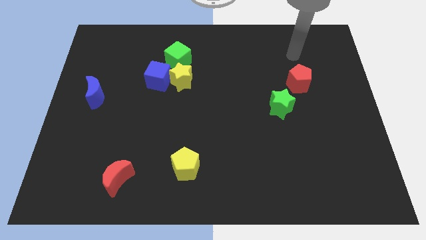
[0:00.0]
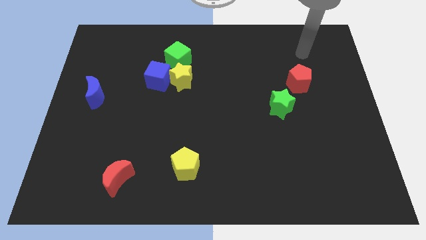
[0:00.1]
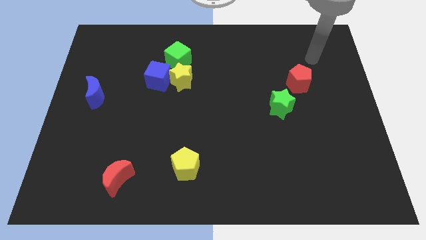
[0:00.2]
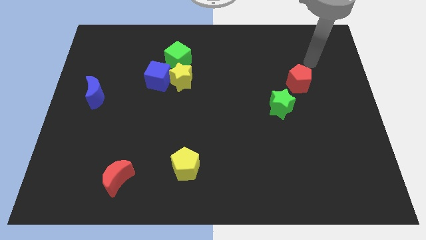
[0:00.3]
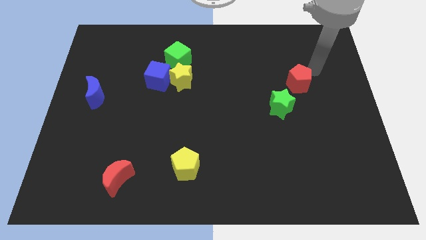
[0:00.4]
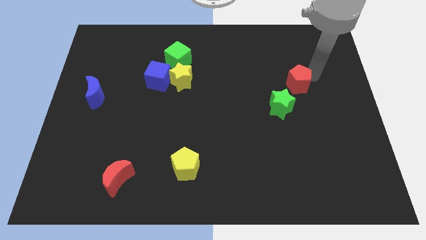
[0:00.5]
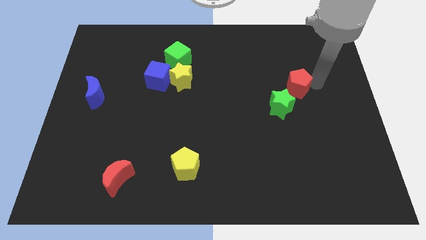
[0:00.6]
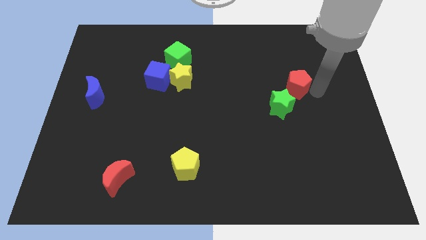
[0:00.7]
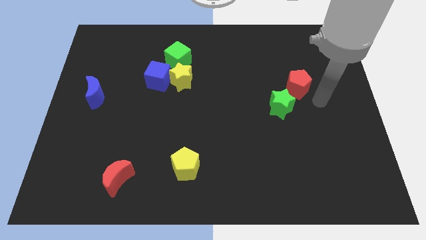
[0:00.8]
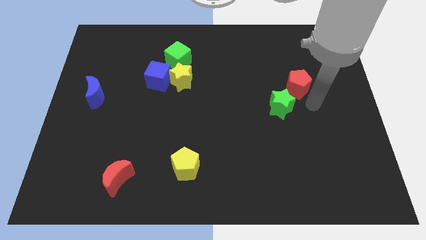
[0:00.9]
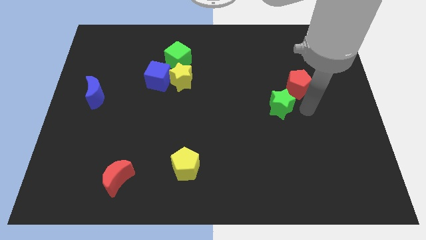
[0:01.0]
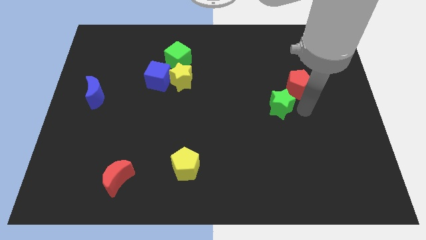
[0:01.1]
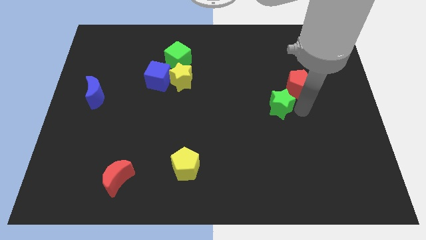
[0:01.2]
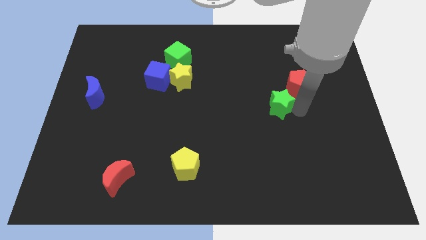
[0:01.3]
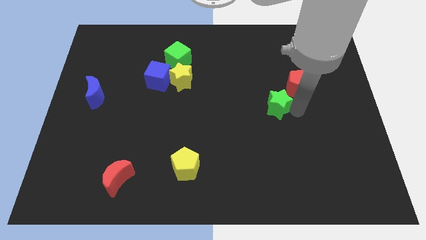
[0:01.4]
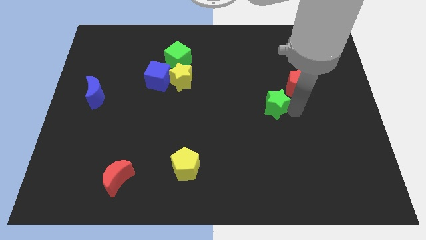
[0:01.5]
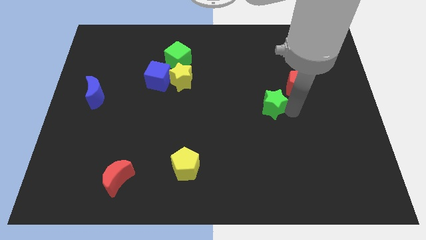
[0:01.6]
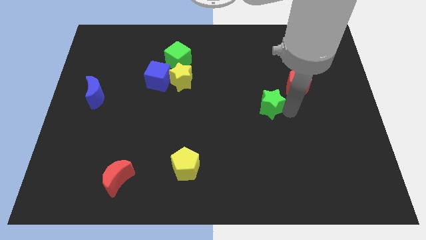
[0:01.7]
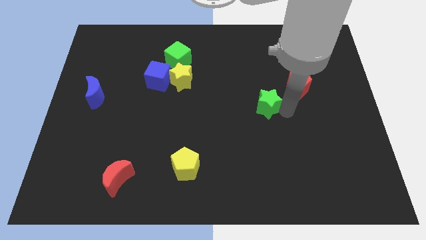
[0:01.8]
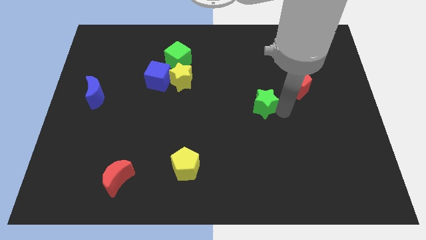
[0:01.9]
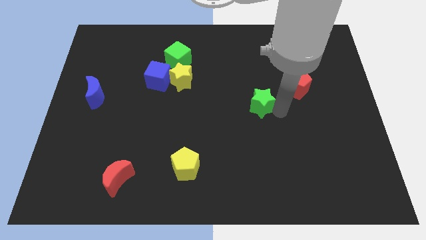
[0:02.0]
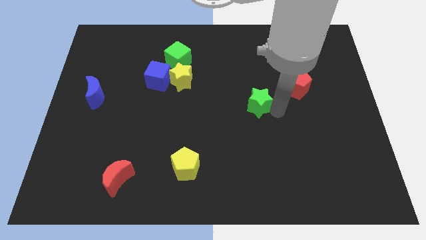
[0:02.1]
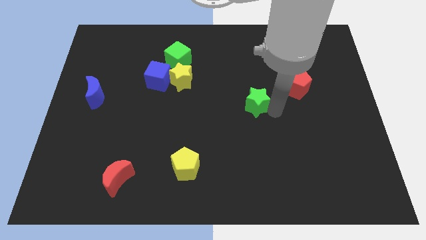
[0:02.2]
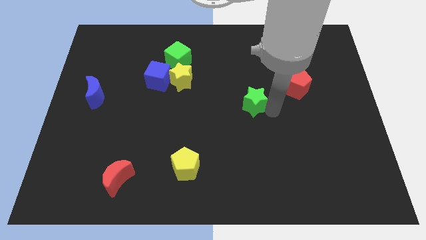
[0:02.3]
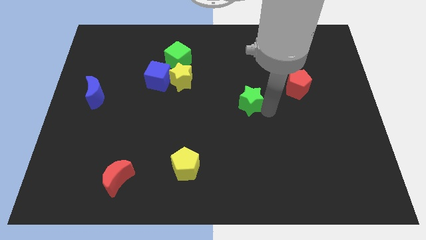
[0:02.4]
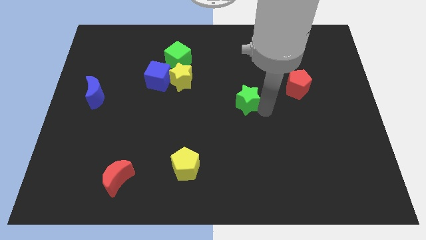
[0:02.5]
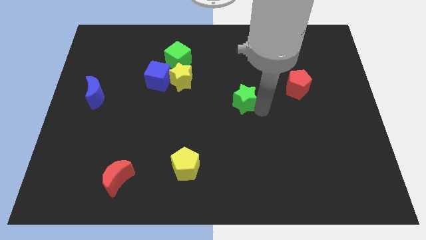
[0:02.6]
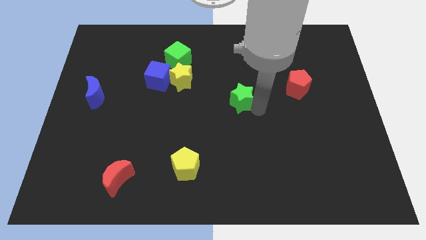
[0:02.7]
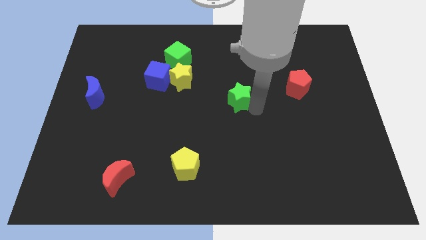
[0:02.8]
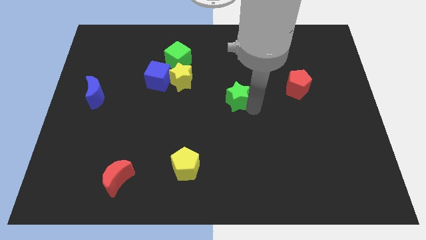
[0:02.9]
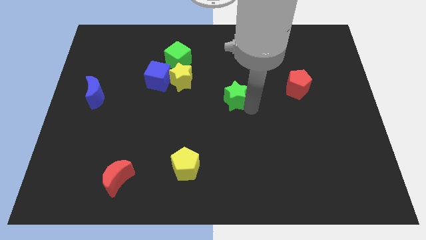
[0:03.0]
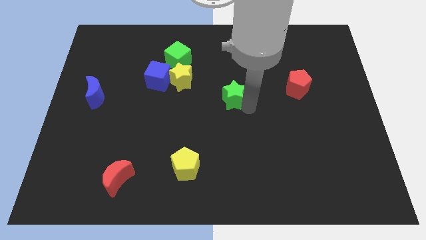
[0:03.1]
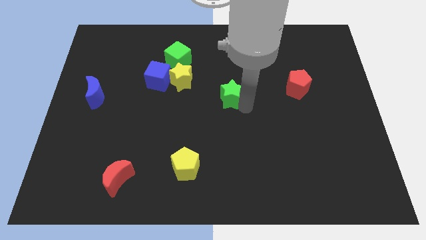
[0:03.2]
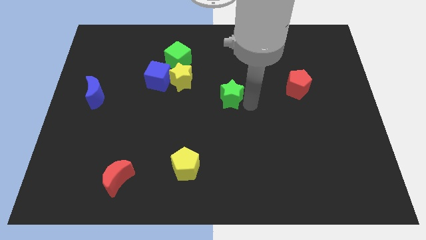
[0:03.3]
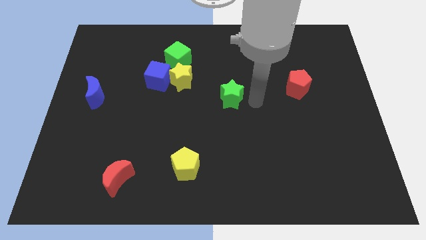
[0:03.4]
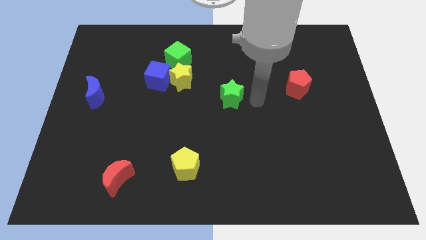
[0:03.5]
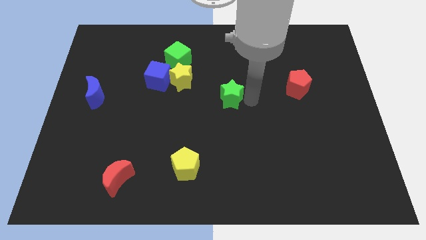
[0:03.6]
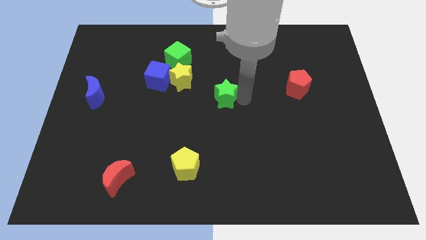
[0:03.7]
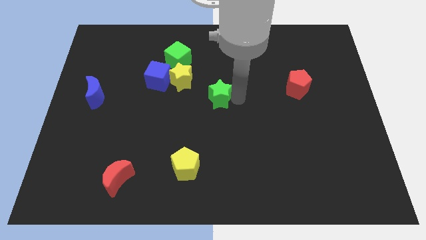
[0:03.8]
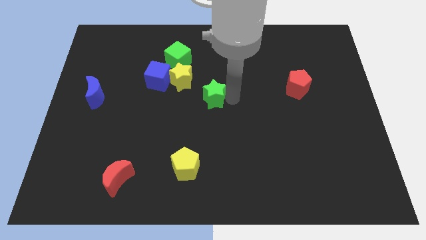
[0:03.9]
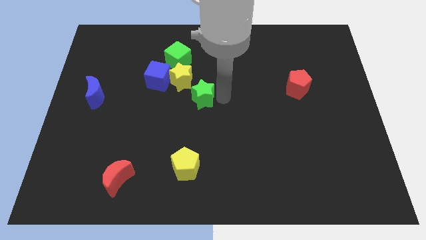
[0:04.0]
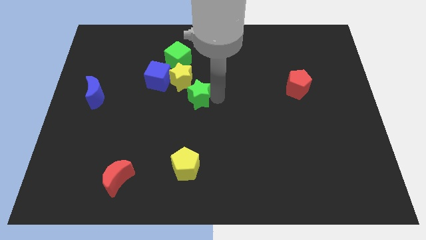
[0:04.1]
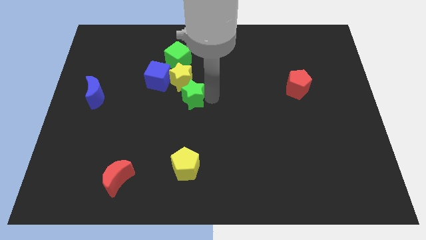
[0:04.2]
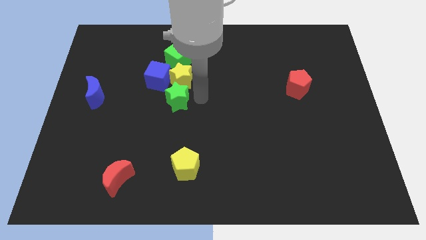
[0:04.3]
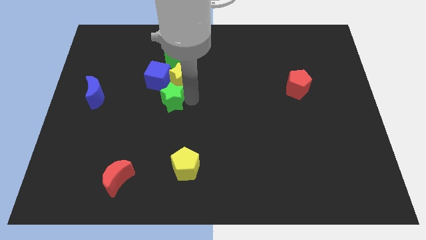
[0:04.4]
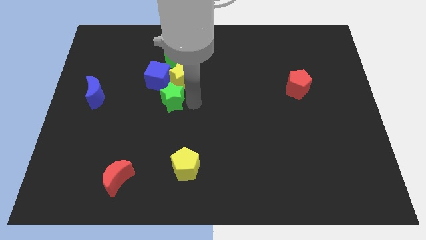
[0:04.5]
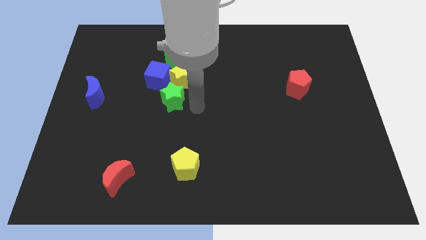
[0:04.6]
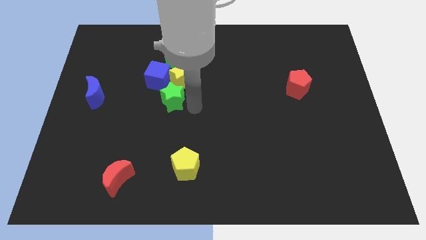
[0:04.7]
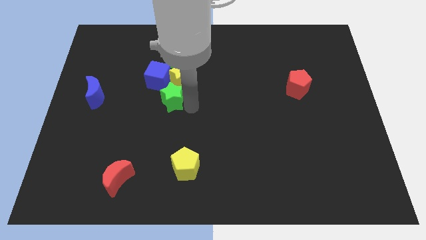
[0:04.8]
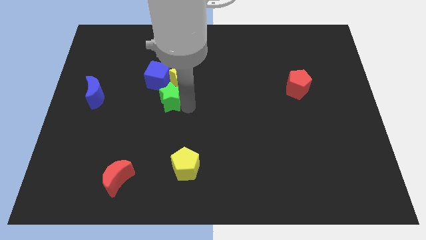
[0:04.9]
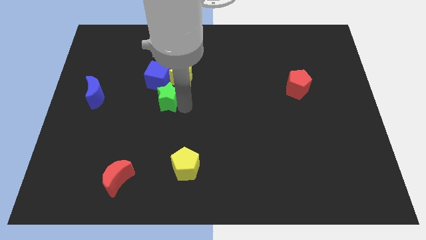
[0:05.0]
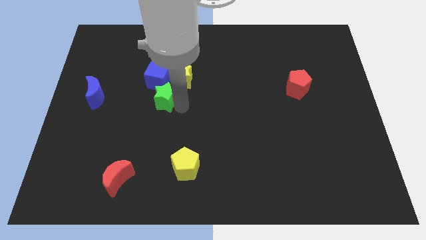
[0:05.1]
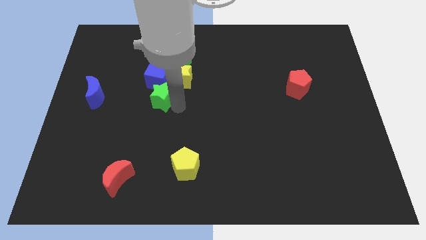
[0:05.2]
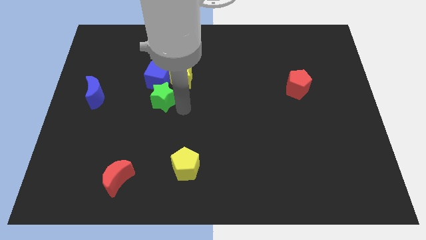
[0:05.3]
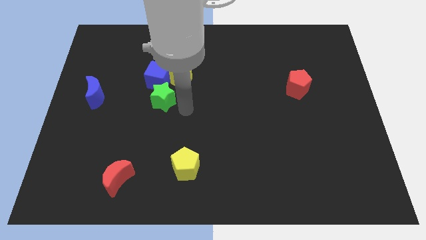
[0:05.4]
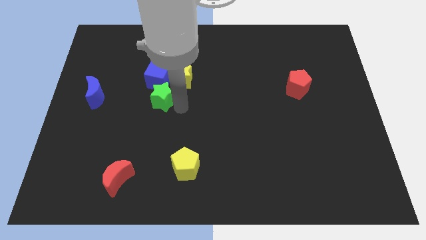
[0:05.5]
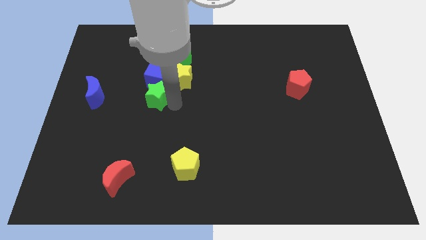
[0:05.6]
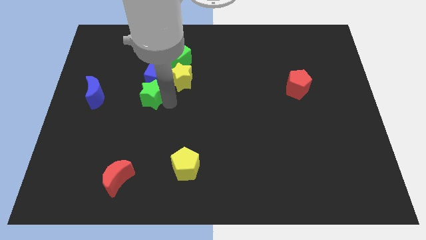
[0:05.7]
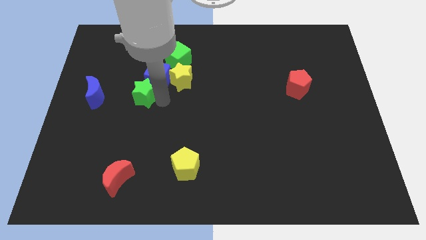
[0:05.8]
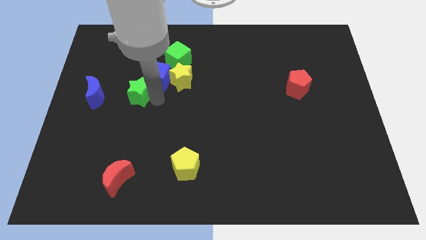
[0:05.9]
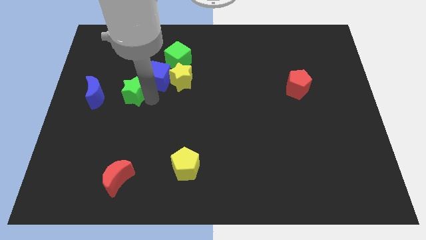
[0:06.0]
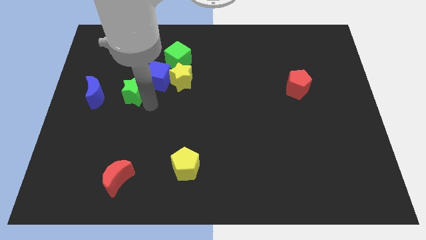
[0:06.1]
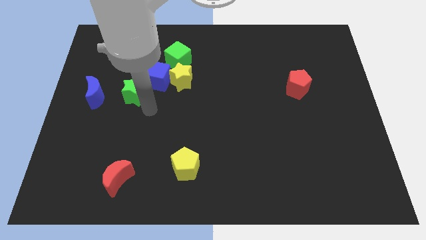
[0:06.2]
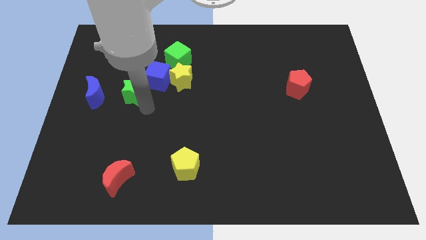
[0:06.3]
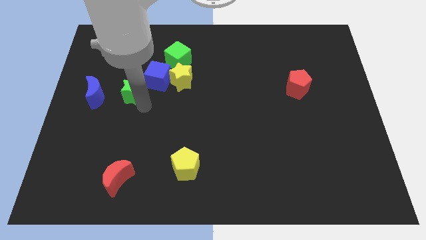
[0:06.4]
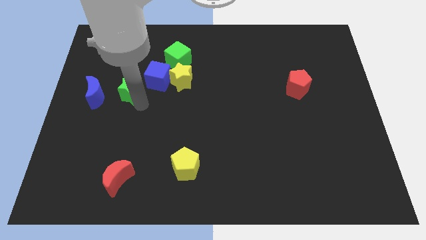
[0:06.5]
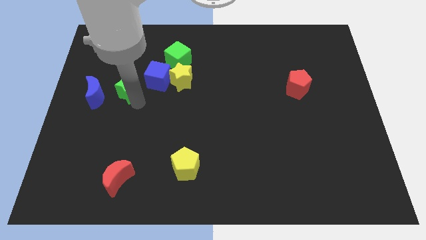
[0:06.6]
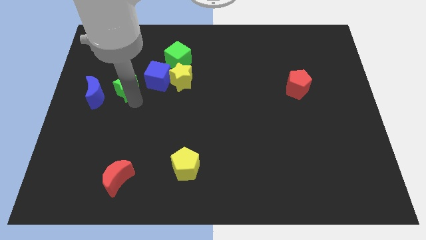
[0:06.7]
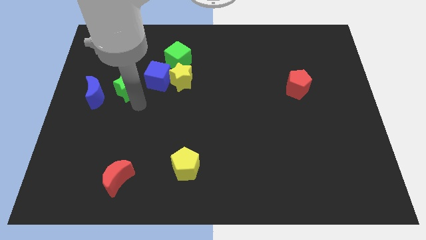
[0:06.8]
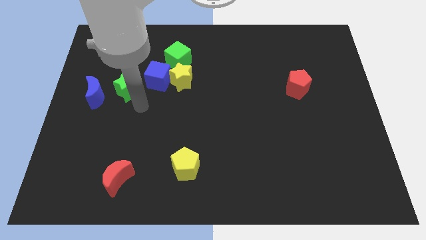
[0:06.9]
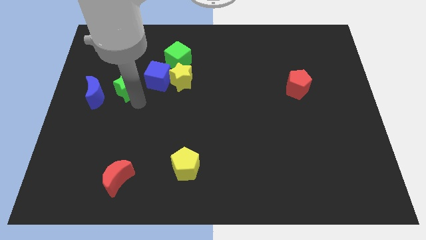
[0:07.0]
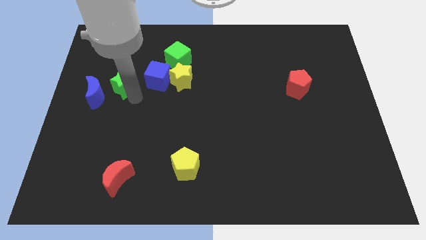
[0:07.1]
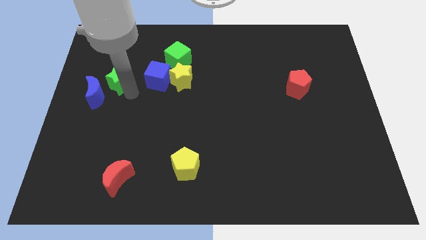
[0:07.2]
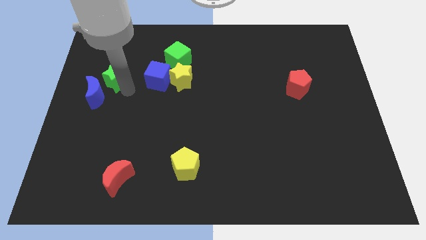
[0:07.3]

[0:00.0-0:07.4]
slide the green star to the top of the blue moon
